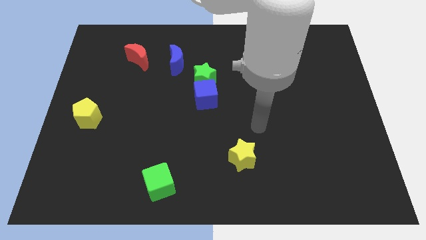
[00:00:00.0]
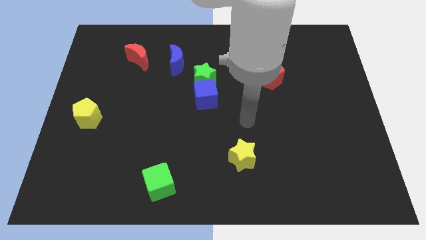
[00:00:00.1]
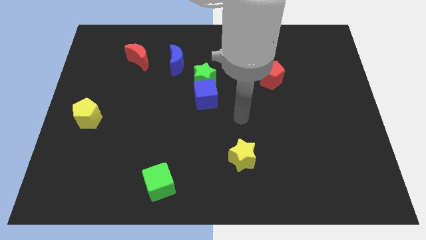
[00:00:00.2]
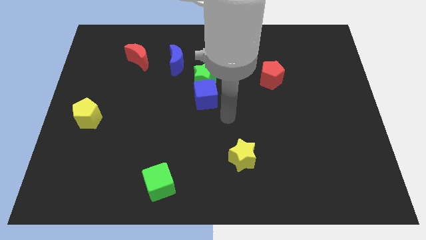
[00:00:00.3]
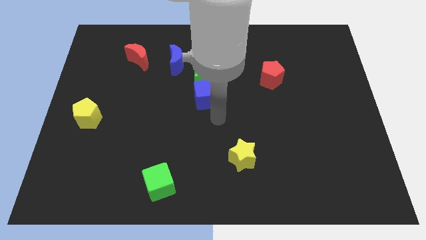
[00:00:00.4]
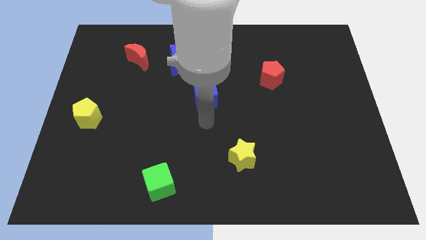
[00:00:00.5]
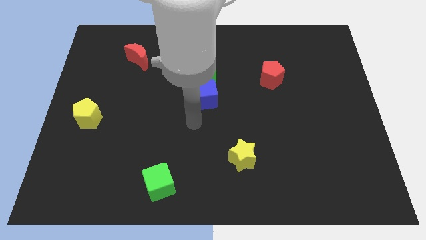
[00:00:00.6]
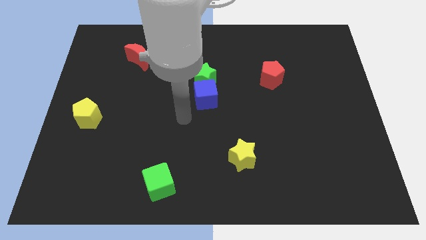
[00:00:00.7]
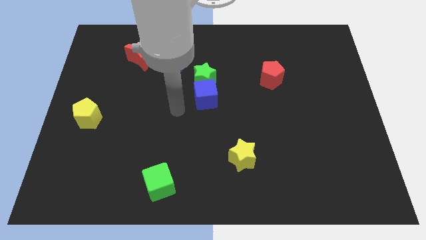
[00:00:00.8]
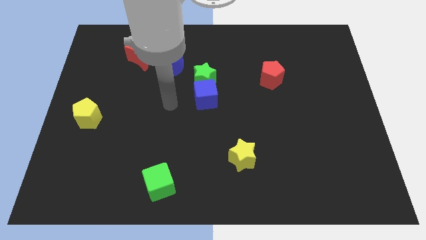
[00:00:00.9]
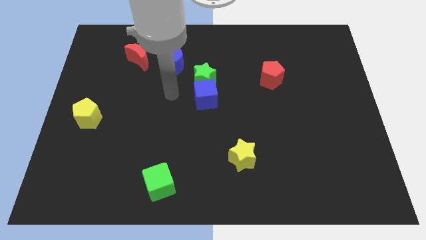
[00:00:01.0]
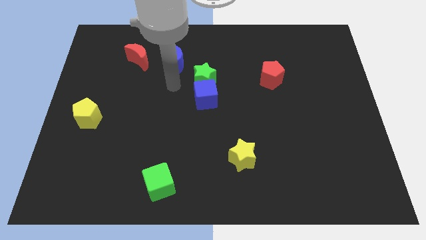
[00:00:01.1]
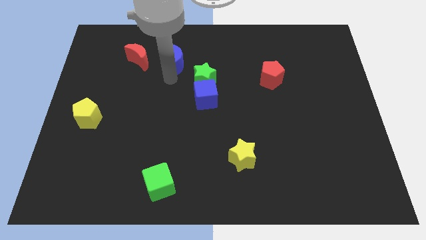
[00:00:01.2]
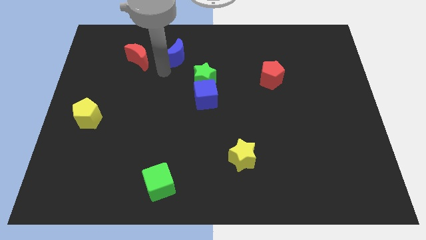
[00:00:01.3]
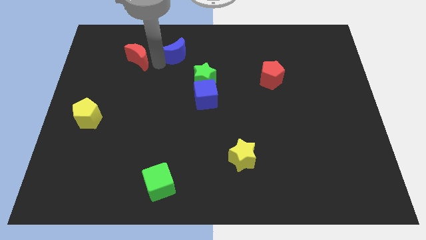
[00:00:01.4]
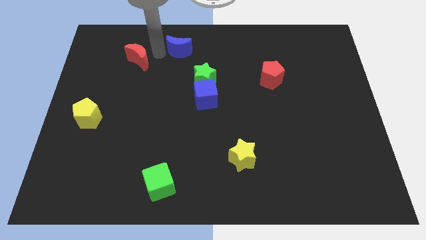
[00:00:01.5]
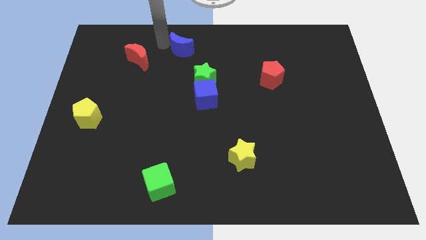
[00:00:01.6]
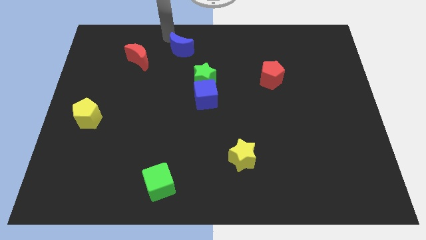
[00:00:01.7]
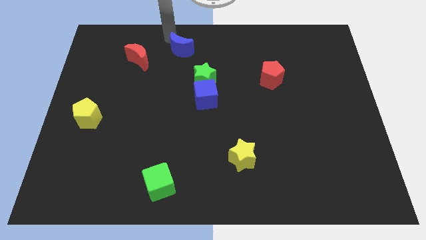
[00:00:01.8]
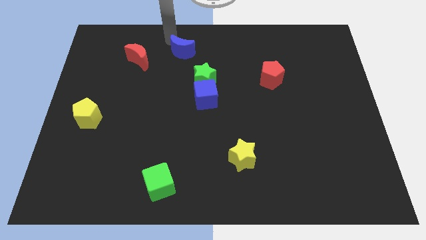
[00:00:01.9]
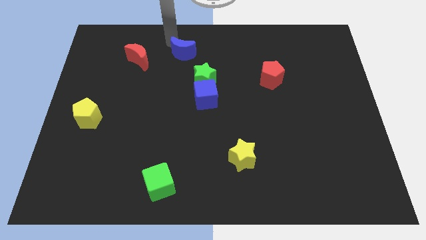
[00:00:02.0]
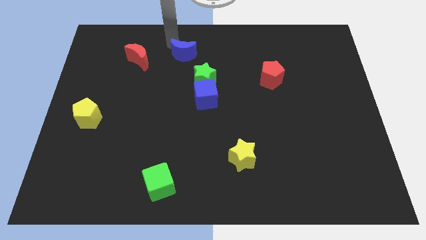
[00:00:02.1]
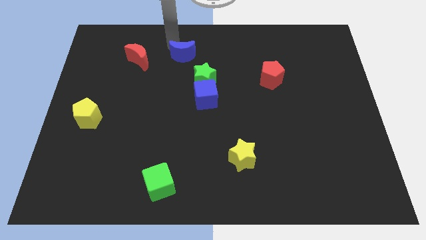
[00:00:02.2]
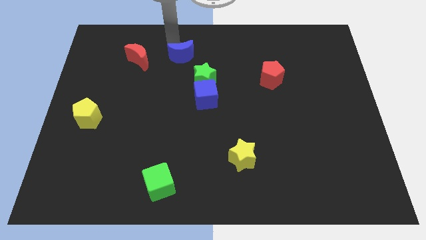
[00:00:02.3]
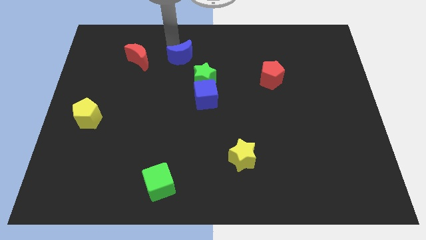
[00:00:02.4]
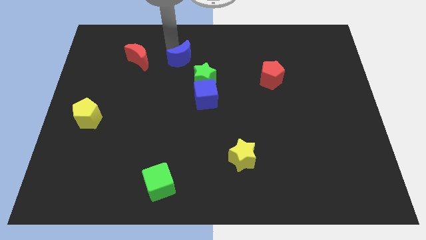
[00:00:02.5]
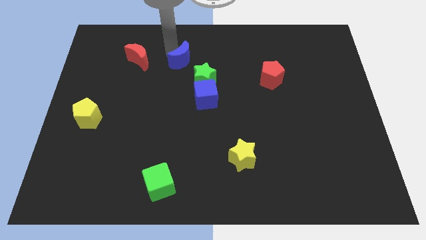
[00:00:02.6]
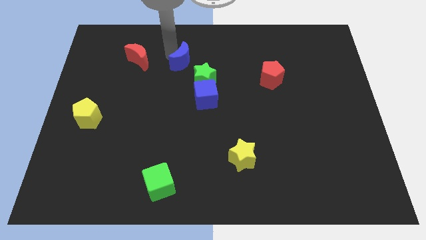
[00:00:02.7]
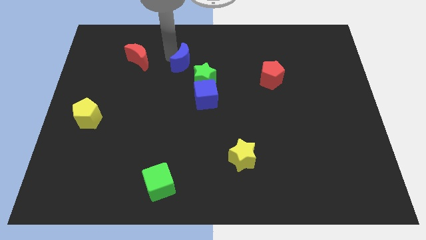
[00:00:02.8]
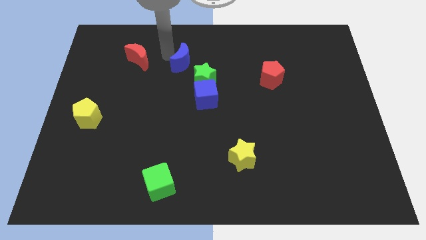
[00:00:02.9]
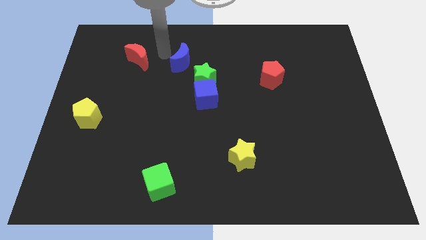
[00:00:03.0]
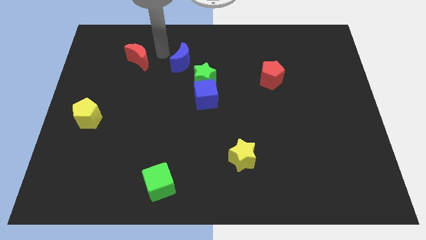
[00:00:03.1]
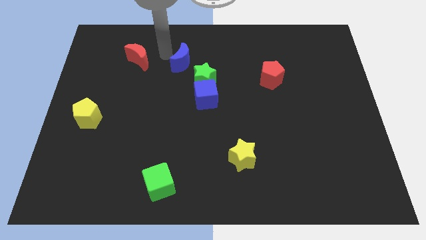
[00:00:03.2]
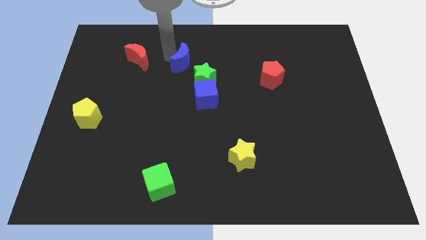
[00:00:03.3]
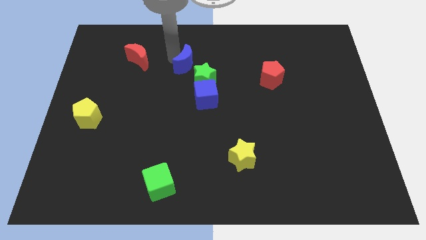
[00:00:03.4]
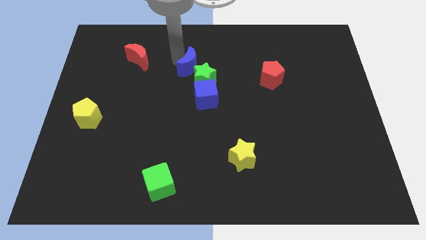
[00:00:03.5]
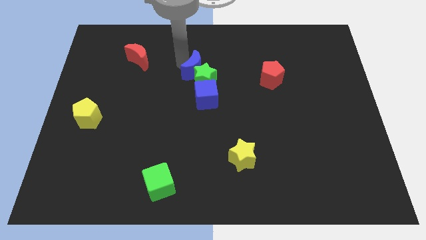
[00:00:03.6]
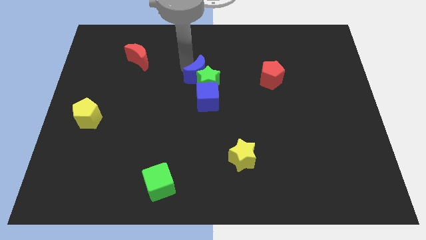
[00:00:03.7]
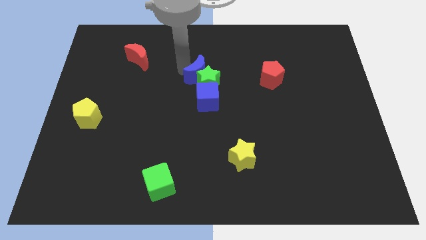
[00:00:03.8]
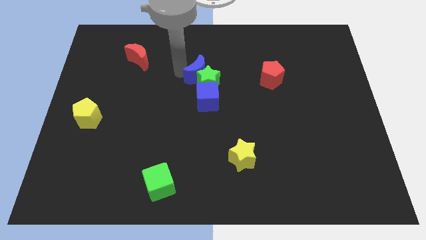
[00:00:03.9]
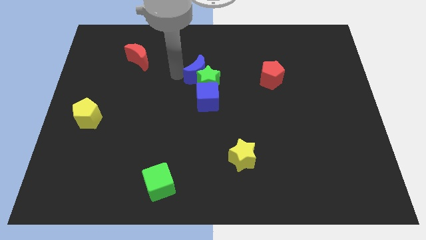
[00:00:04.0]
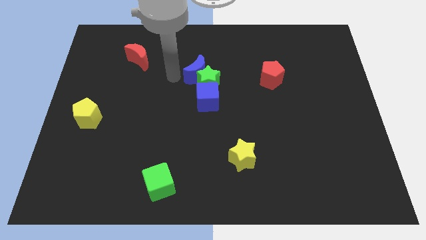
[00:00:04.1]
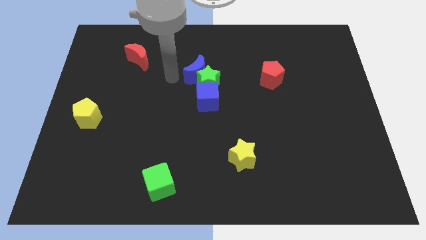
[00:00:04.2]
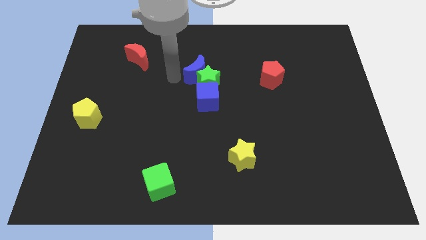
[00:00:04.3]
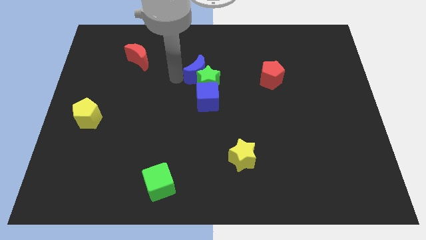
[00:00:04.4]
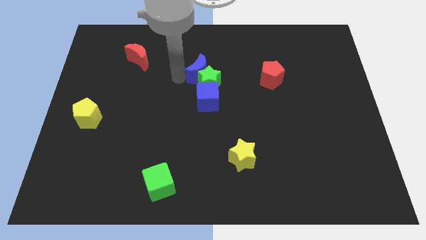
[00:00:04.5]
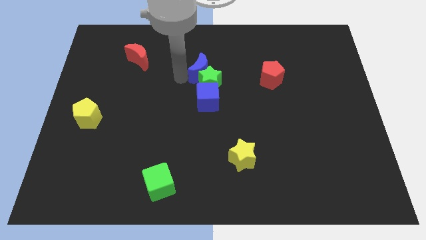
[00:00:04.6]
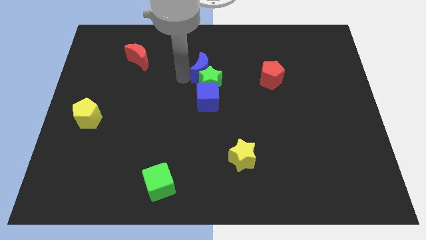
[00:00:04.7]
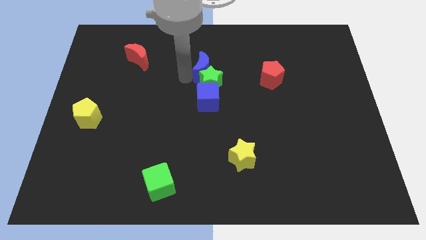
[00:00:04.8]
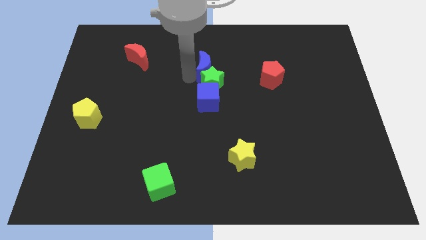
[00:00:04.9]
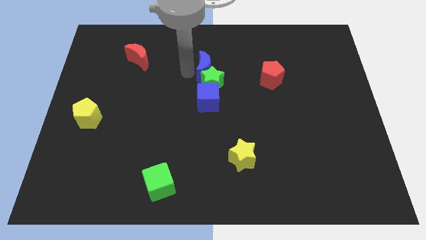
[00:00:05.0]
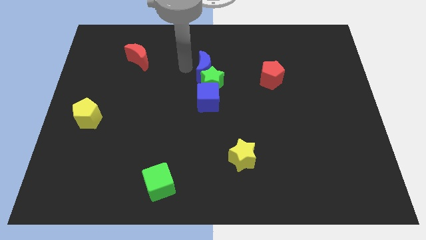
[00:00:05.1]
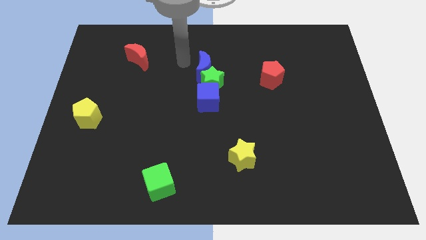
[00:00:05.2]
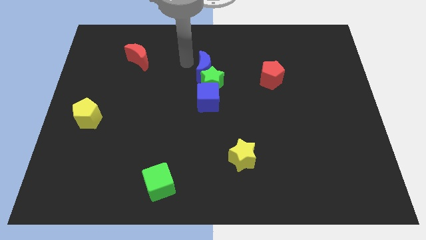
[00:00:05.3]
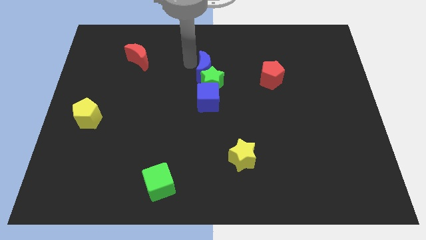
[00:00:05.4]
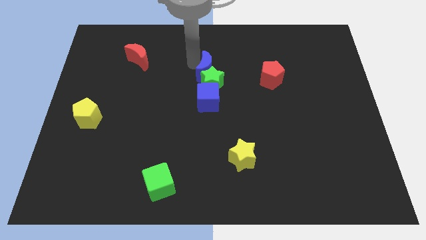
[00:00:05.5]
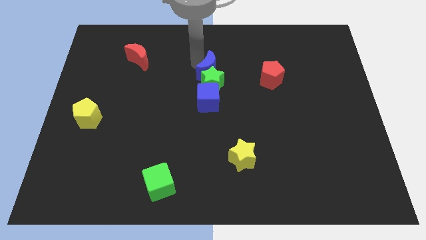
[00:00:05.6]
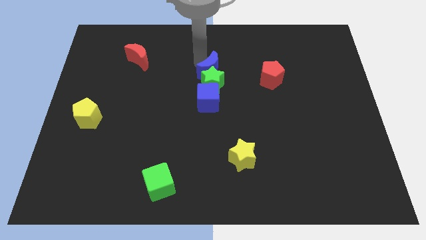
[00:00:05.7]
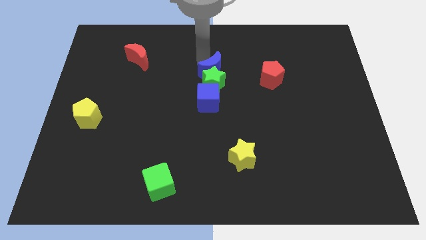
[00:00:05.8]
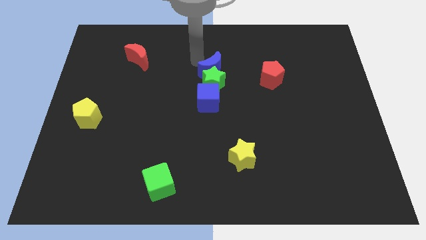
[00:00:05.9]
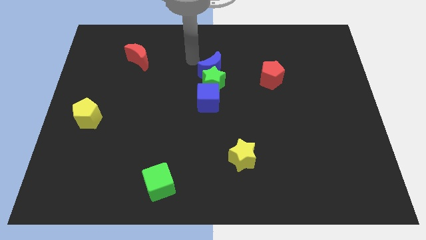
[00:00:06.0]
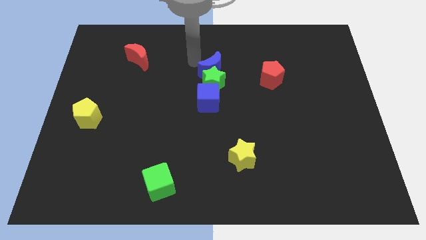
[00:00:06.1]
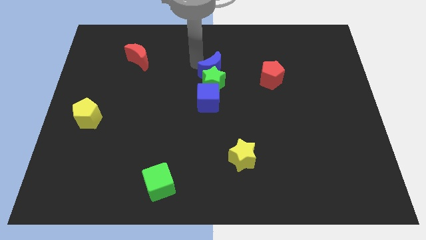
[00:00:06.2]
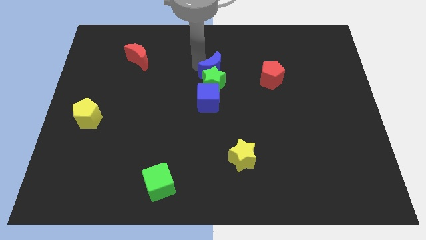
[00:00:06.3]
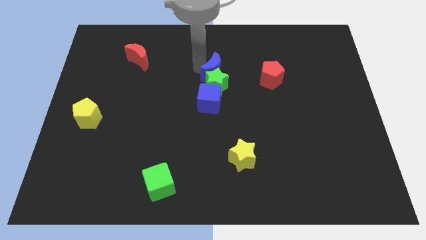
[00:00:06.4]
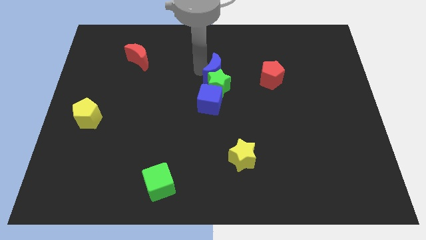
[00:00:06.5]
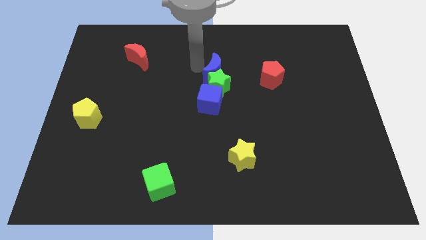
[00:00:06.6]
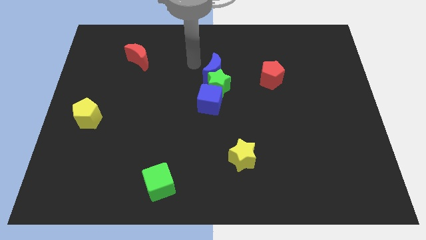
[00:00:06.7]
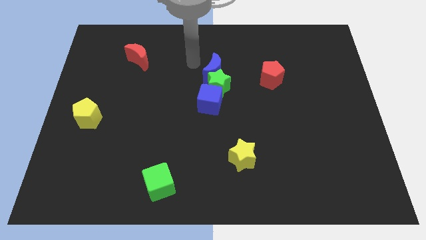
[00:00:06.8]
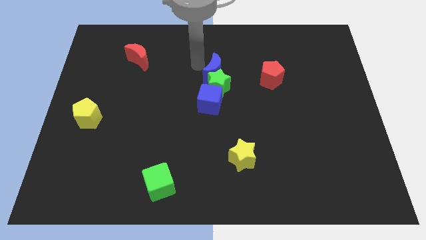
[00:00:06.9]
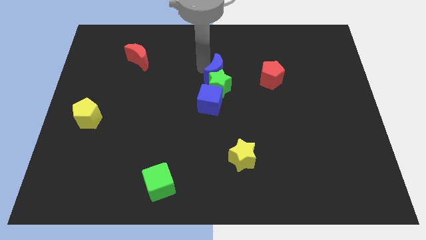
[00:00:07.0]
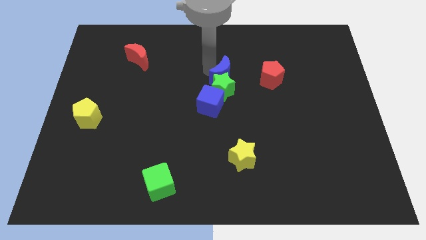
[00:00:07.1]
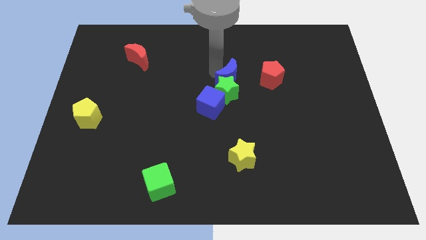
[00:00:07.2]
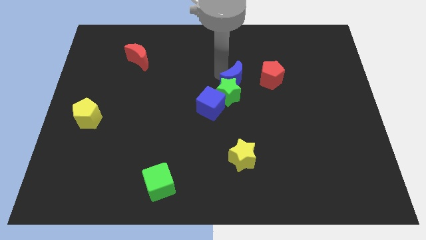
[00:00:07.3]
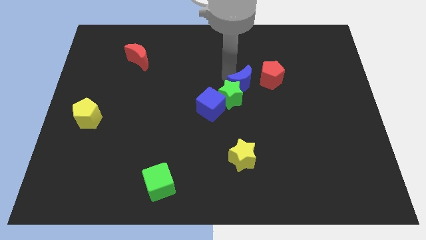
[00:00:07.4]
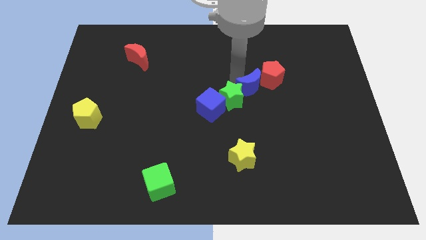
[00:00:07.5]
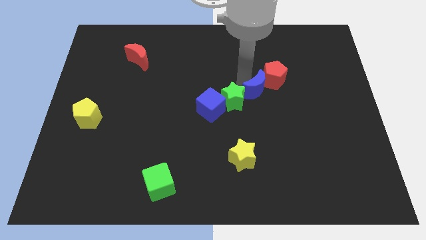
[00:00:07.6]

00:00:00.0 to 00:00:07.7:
slide the blue moon to the bottom side of the red pentagon
